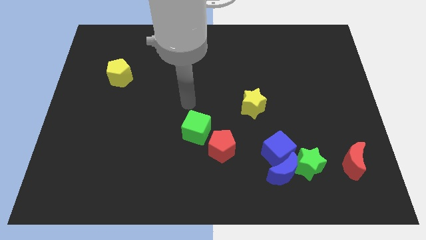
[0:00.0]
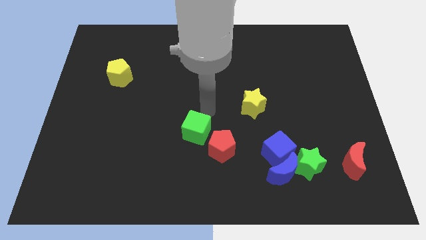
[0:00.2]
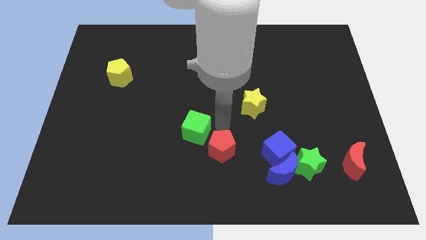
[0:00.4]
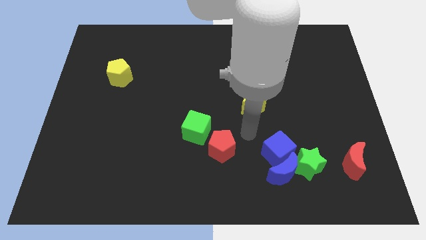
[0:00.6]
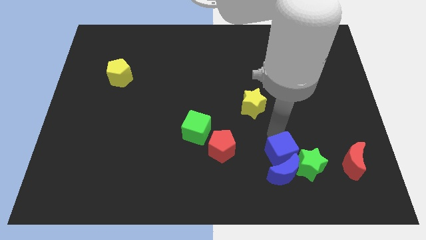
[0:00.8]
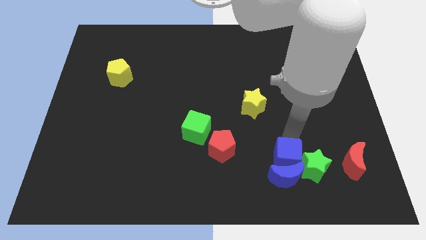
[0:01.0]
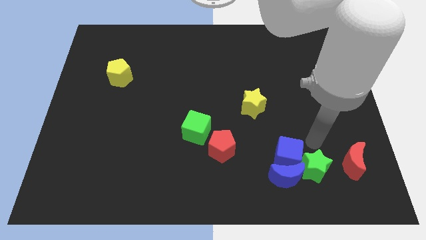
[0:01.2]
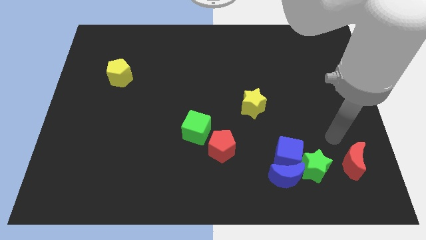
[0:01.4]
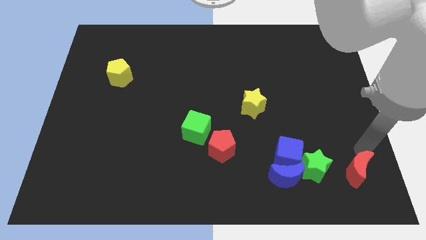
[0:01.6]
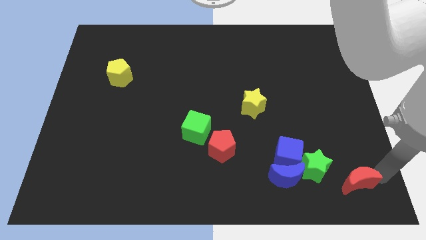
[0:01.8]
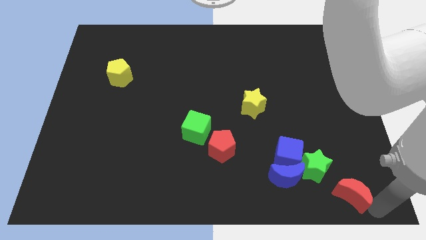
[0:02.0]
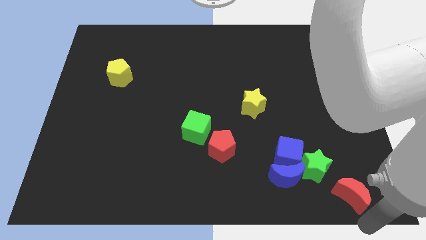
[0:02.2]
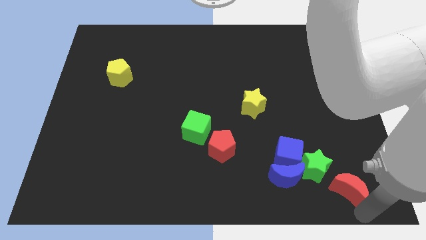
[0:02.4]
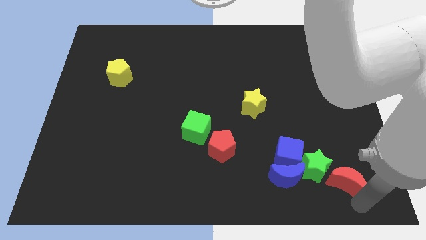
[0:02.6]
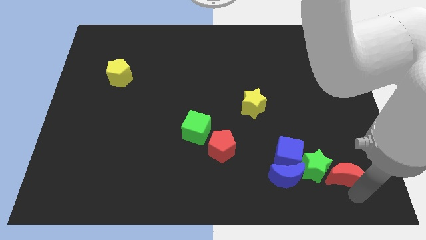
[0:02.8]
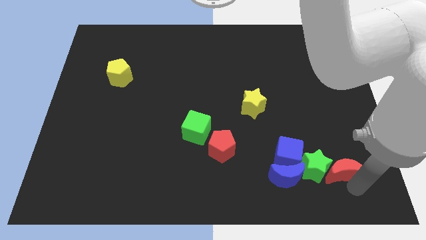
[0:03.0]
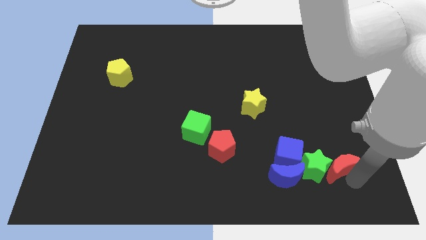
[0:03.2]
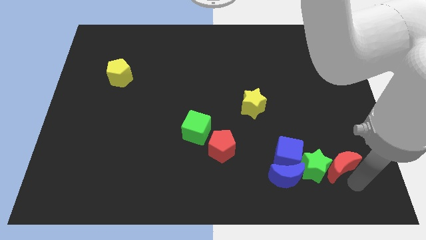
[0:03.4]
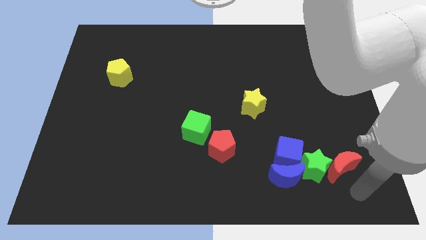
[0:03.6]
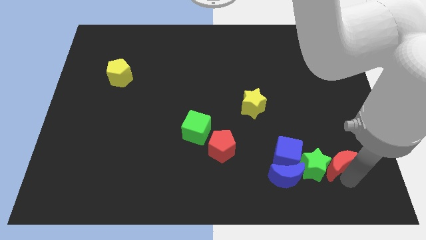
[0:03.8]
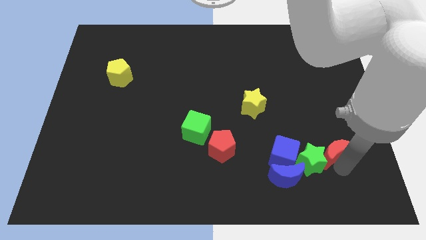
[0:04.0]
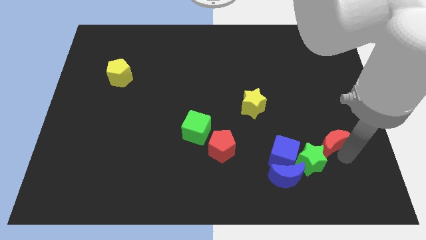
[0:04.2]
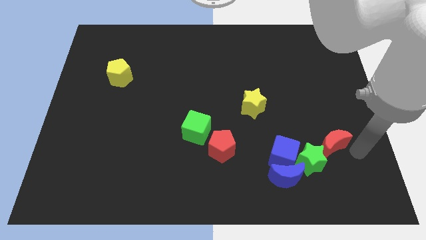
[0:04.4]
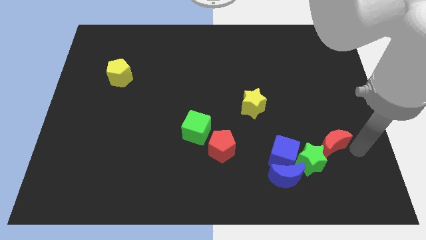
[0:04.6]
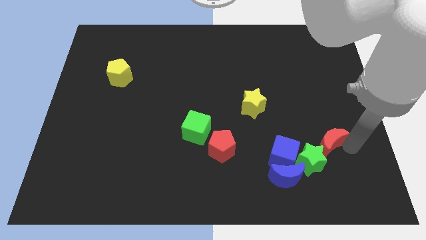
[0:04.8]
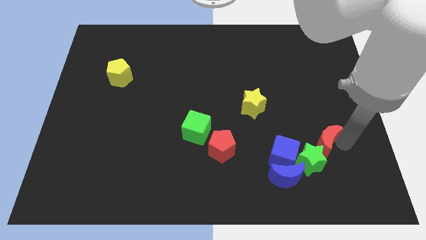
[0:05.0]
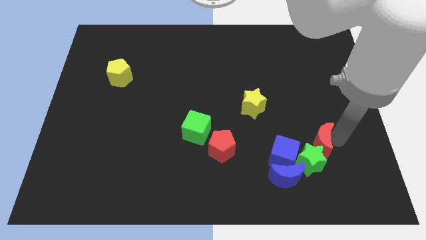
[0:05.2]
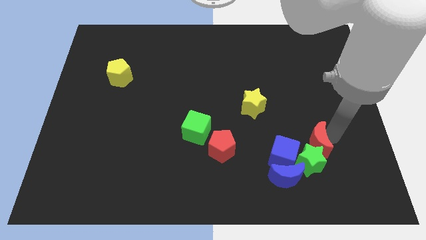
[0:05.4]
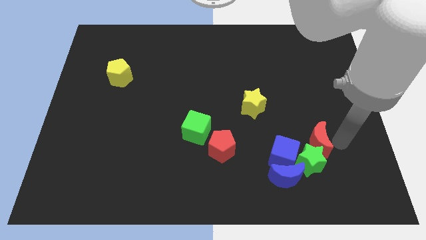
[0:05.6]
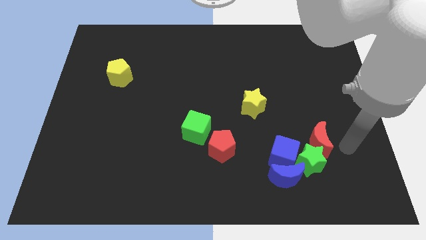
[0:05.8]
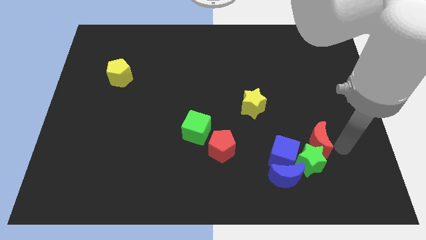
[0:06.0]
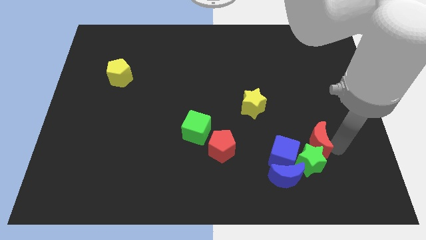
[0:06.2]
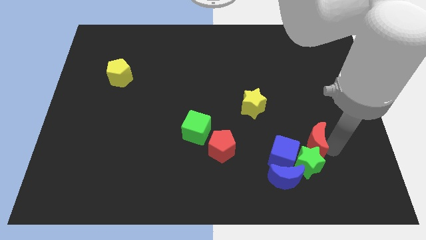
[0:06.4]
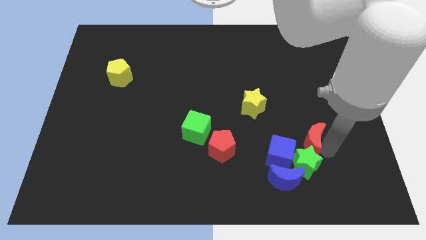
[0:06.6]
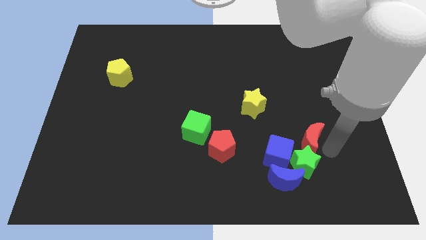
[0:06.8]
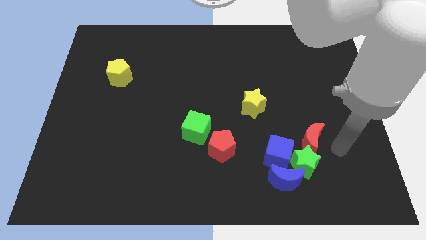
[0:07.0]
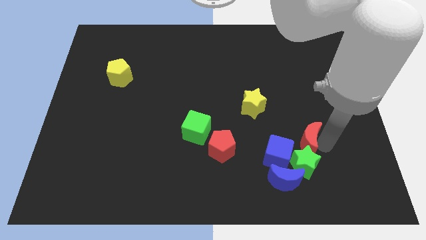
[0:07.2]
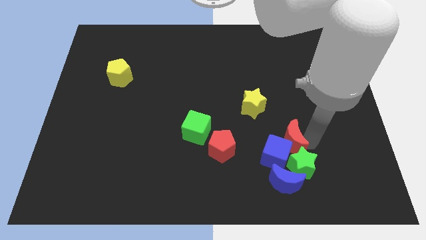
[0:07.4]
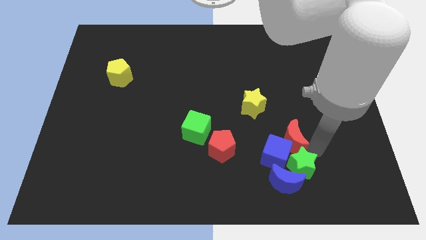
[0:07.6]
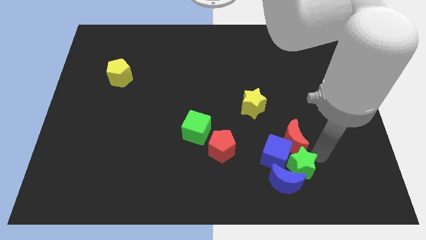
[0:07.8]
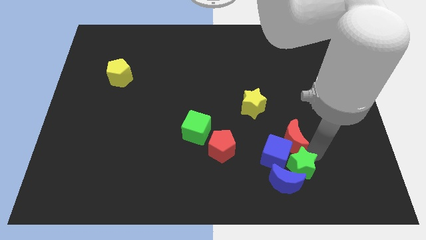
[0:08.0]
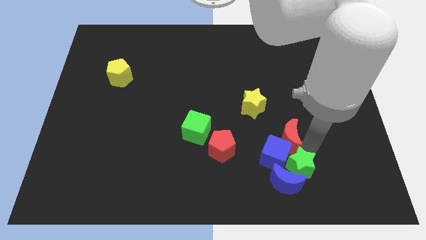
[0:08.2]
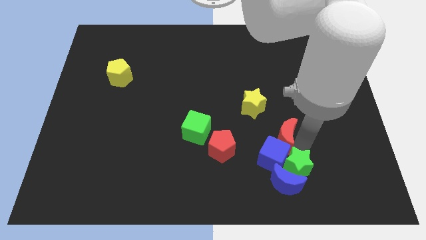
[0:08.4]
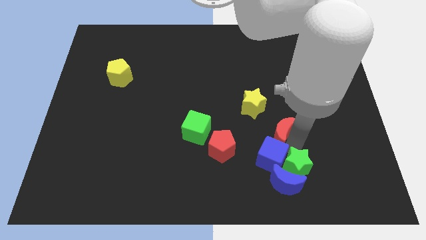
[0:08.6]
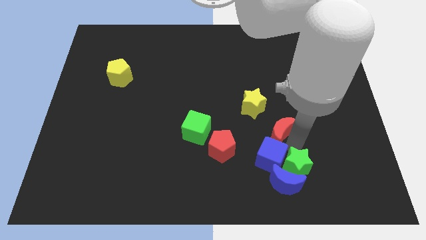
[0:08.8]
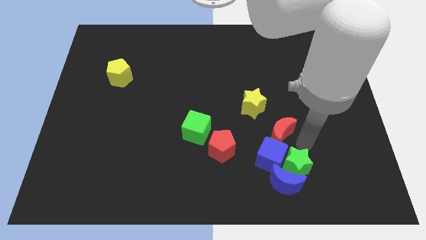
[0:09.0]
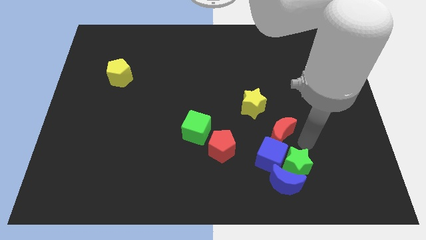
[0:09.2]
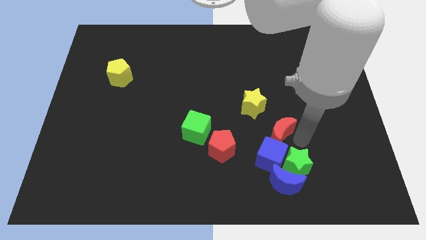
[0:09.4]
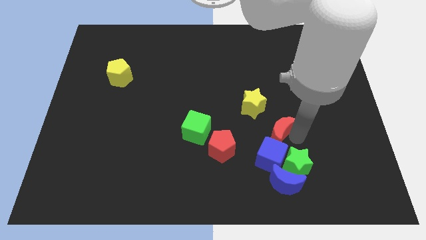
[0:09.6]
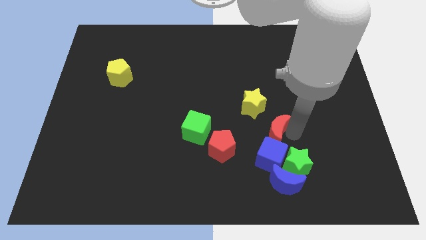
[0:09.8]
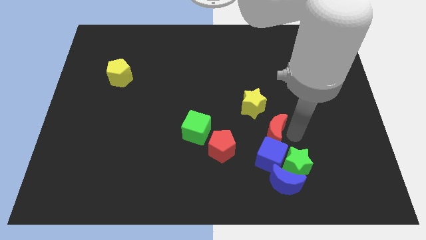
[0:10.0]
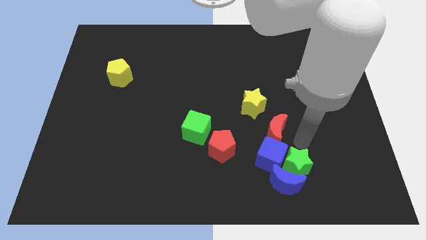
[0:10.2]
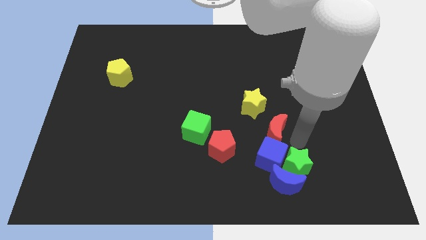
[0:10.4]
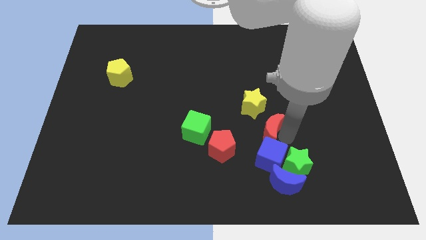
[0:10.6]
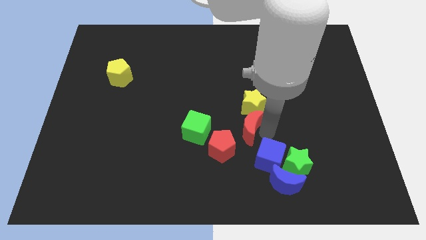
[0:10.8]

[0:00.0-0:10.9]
slide the red moon to the center of the board
